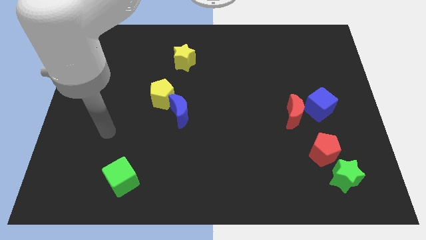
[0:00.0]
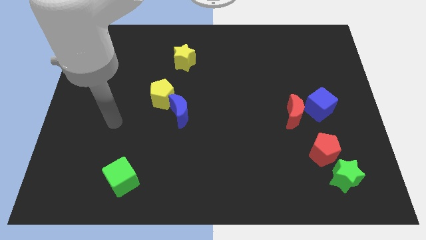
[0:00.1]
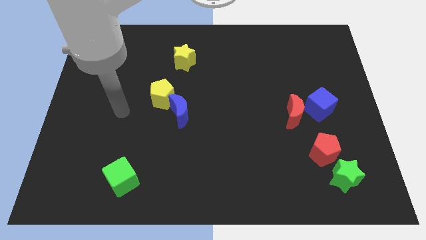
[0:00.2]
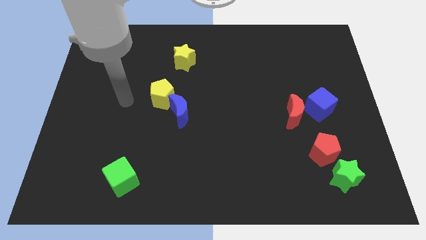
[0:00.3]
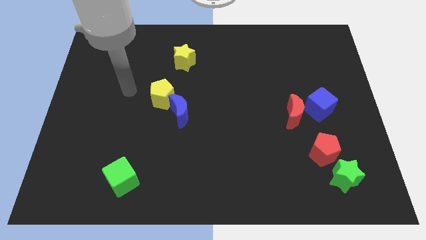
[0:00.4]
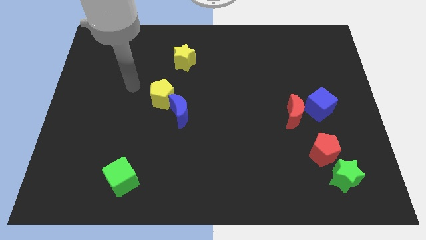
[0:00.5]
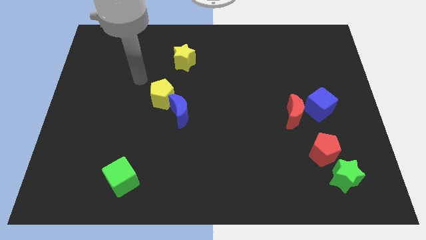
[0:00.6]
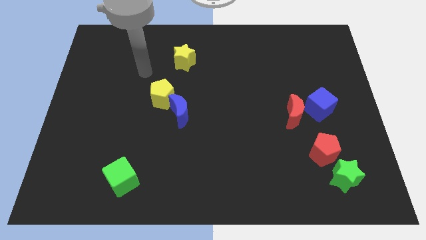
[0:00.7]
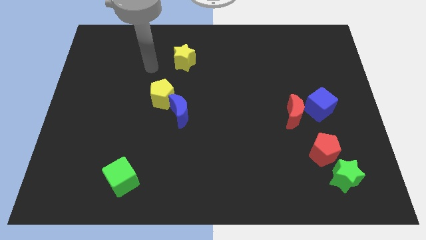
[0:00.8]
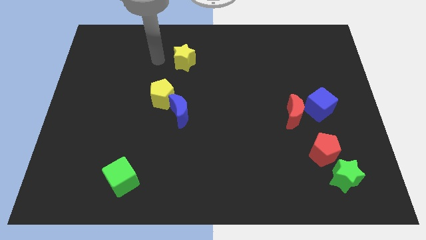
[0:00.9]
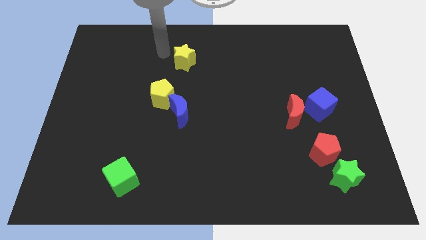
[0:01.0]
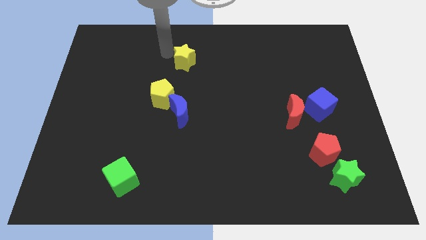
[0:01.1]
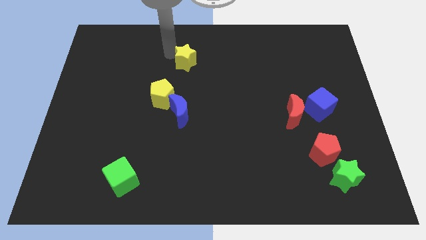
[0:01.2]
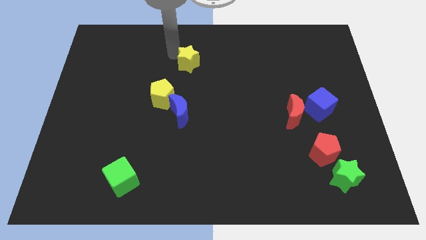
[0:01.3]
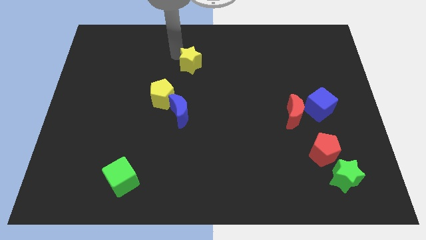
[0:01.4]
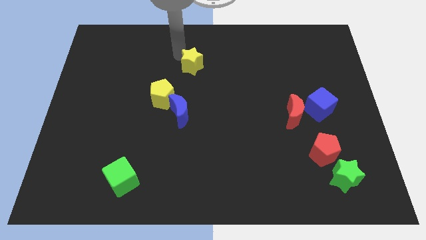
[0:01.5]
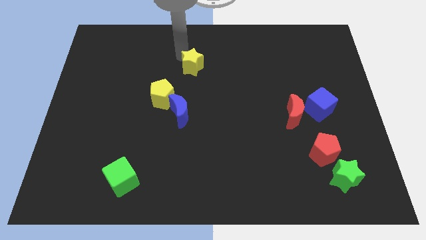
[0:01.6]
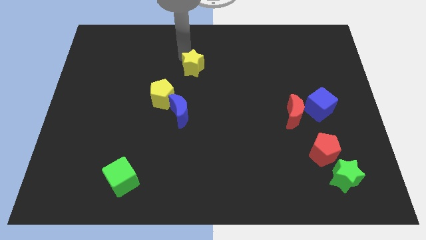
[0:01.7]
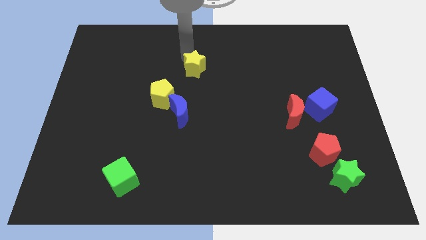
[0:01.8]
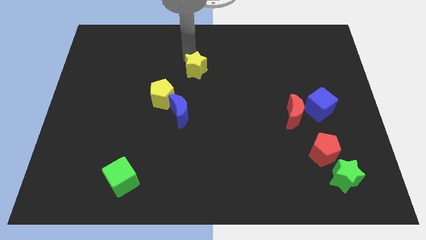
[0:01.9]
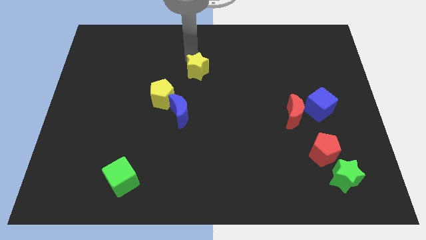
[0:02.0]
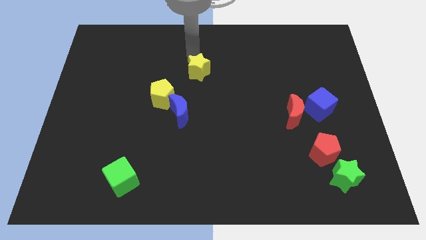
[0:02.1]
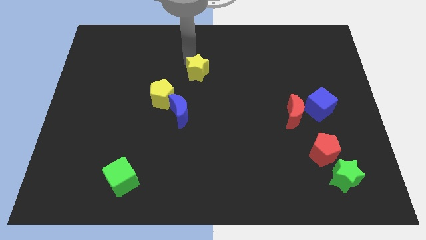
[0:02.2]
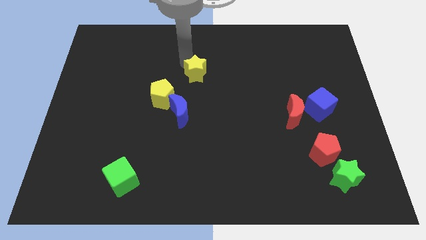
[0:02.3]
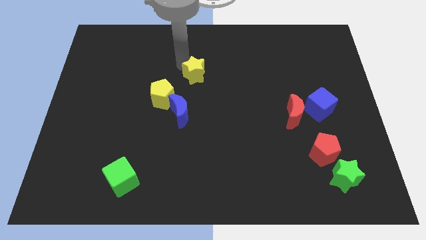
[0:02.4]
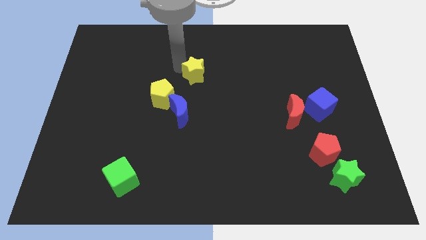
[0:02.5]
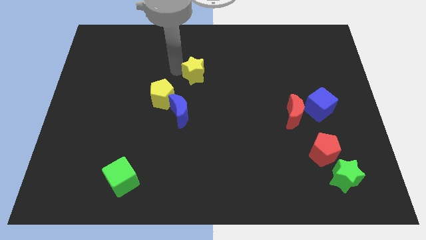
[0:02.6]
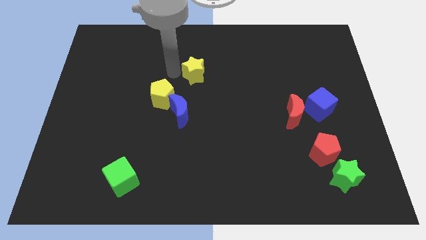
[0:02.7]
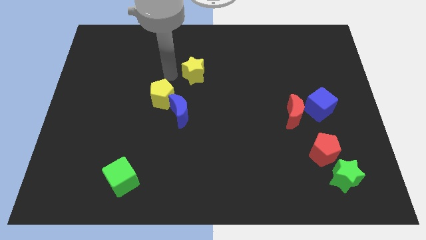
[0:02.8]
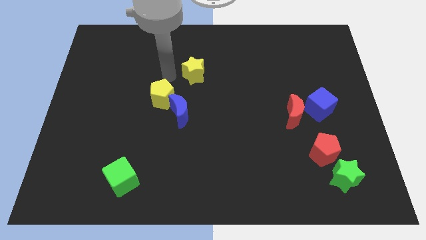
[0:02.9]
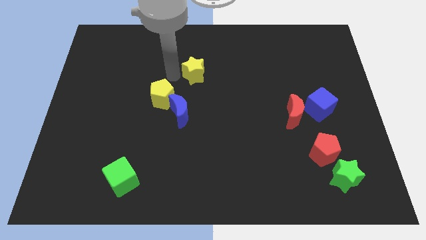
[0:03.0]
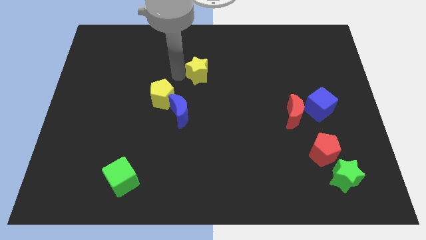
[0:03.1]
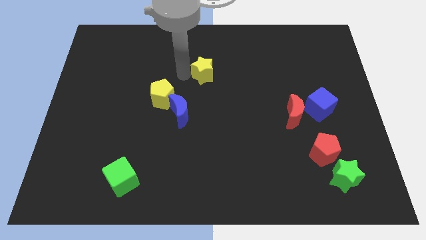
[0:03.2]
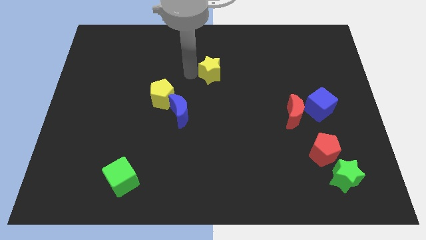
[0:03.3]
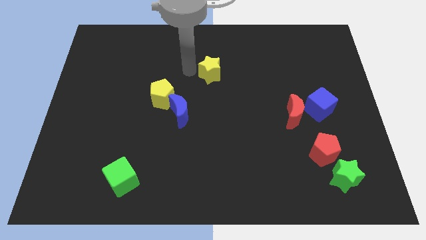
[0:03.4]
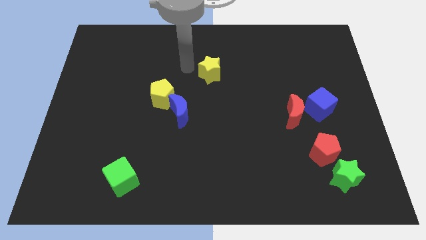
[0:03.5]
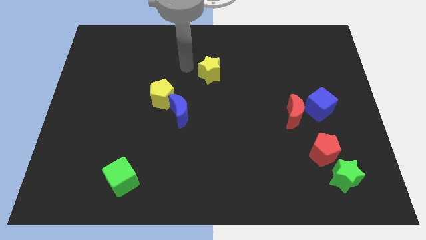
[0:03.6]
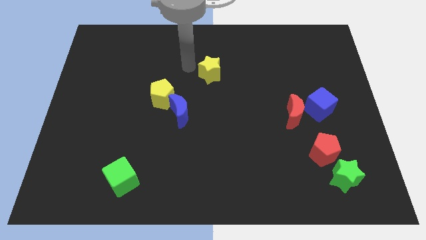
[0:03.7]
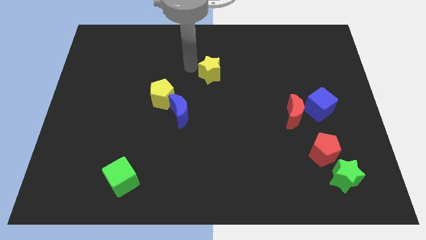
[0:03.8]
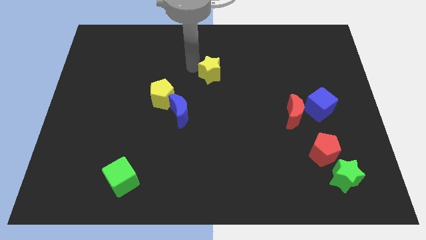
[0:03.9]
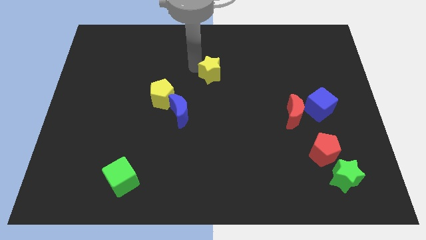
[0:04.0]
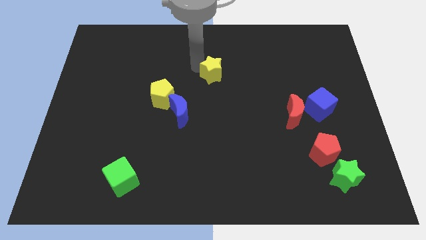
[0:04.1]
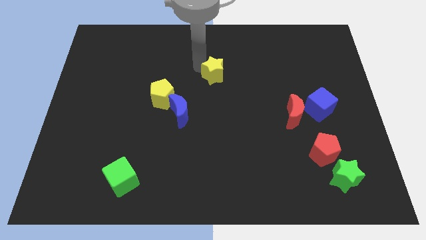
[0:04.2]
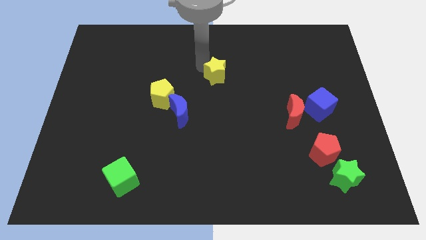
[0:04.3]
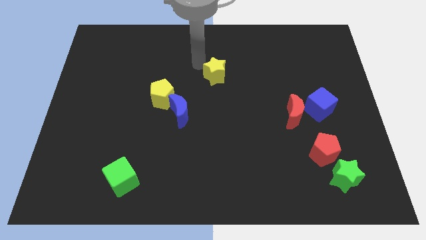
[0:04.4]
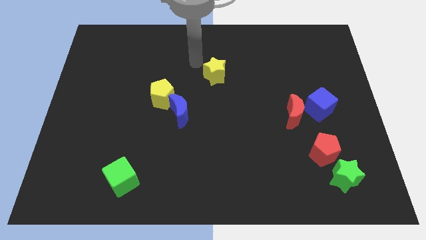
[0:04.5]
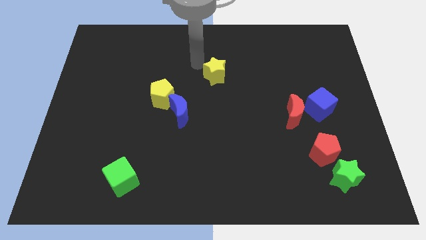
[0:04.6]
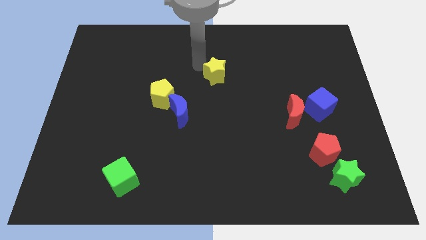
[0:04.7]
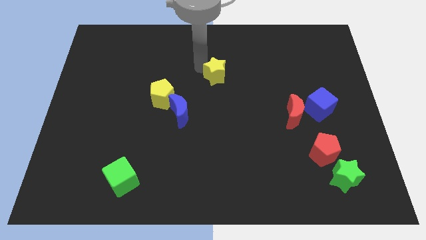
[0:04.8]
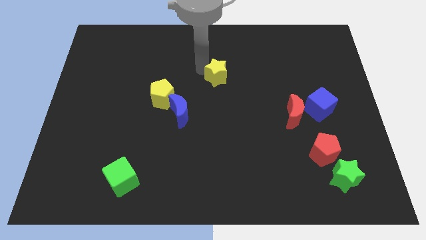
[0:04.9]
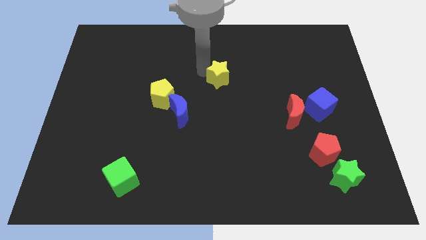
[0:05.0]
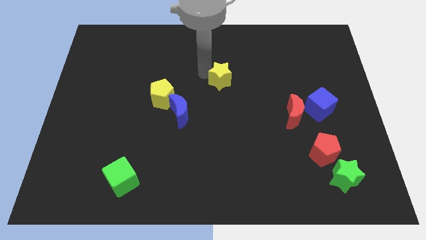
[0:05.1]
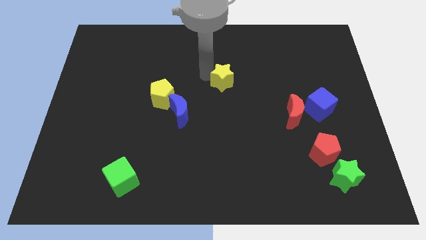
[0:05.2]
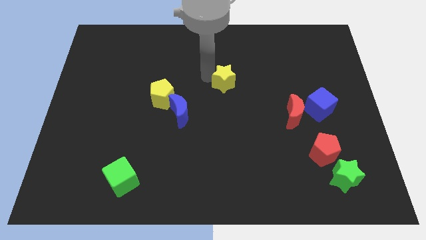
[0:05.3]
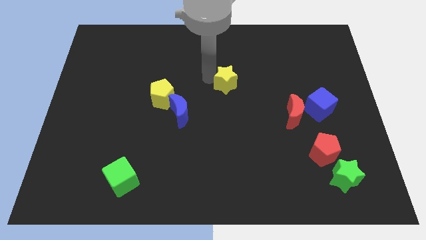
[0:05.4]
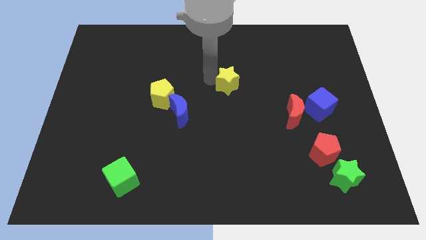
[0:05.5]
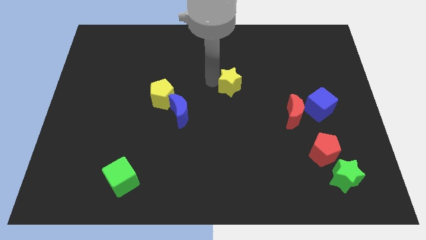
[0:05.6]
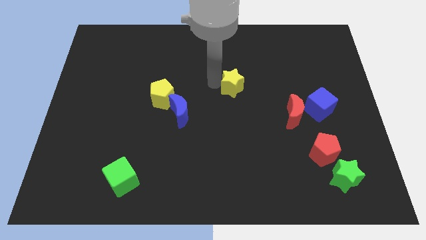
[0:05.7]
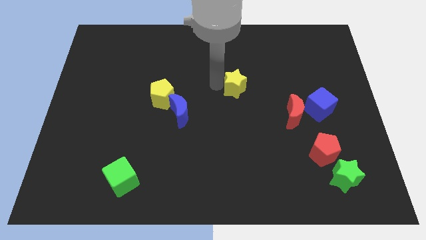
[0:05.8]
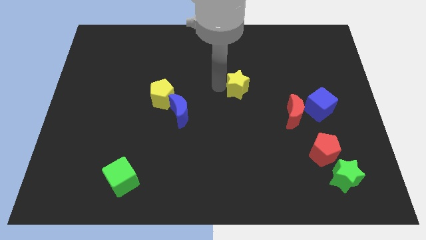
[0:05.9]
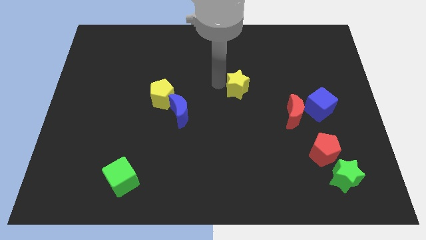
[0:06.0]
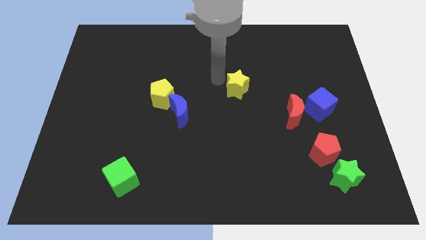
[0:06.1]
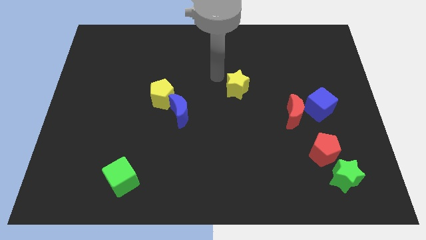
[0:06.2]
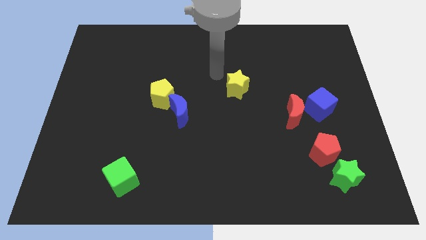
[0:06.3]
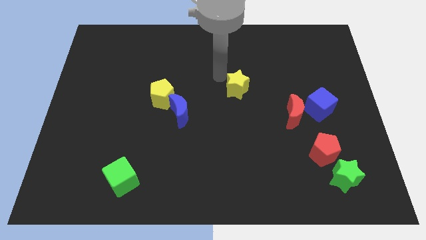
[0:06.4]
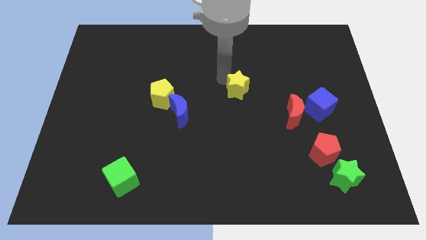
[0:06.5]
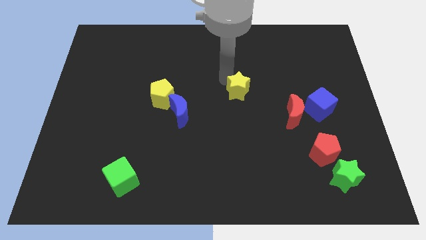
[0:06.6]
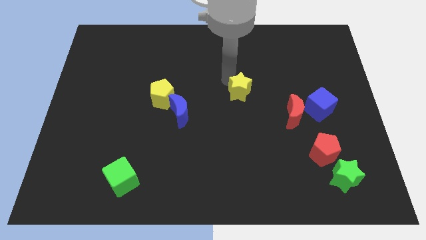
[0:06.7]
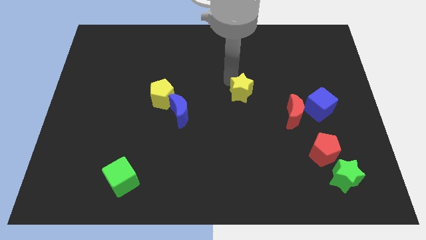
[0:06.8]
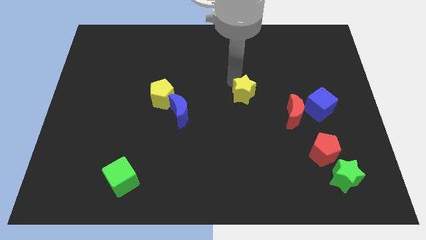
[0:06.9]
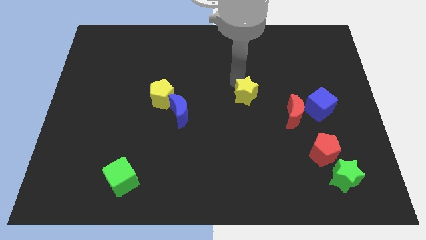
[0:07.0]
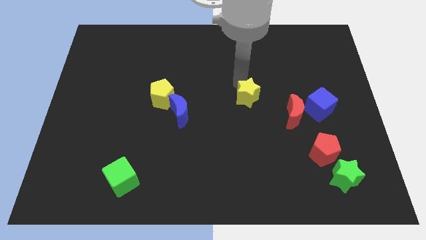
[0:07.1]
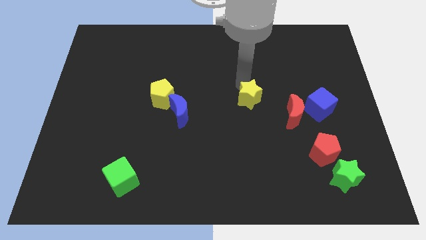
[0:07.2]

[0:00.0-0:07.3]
move the yellow star diagonally down and to the right
